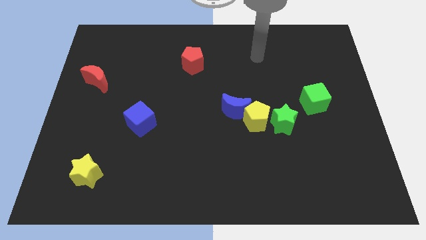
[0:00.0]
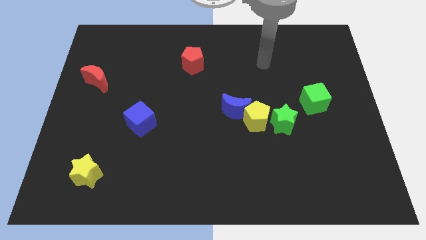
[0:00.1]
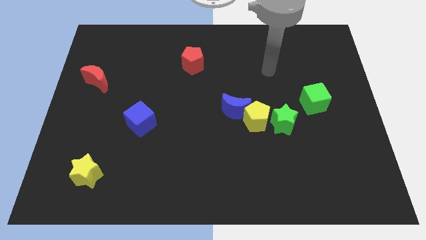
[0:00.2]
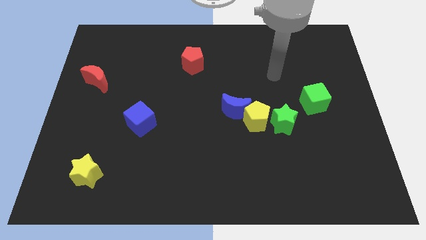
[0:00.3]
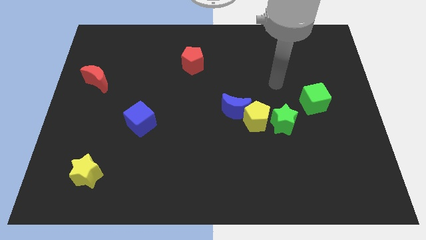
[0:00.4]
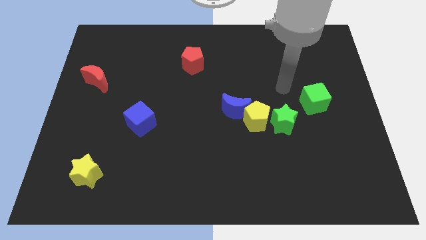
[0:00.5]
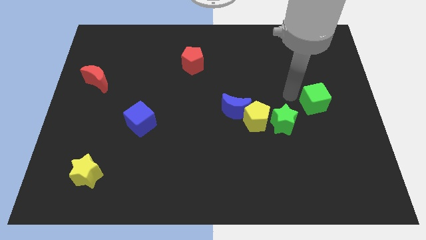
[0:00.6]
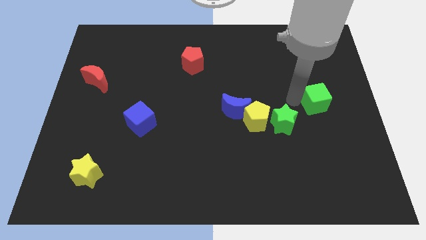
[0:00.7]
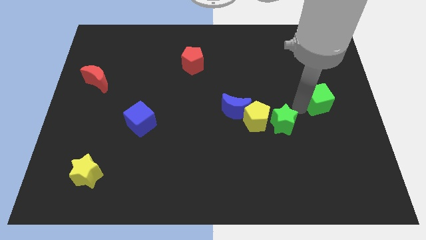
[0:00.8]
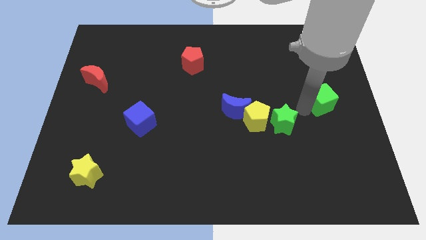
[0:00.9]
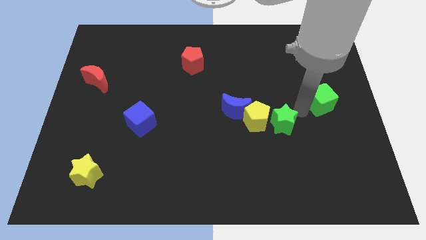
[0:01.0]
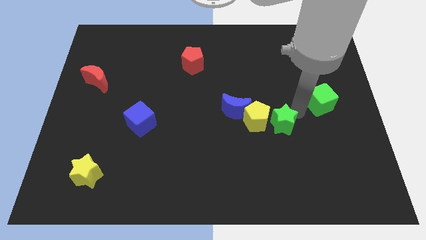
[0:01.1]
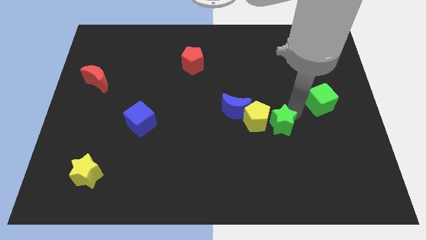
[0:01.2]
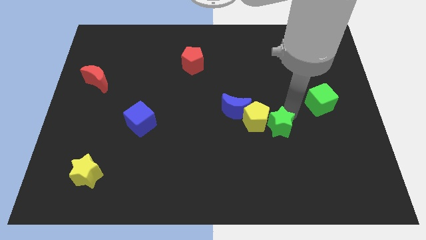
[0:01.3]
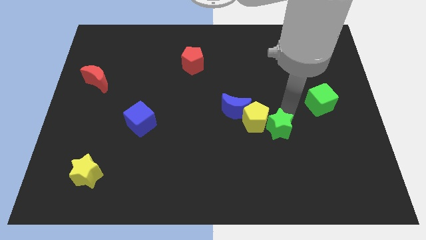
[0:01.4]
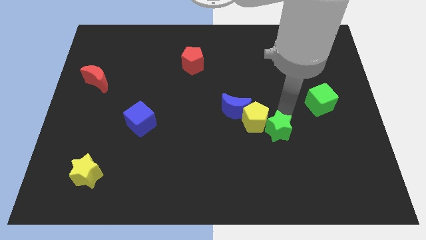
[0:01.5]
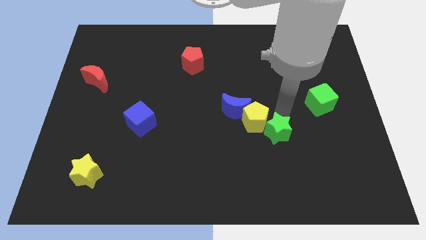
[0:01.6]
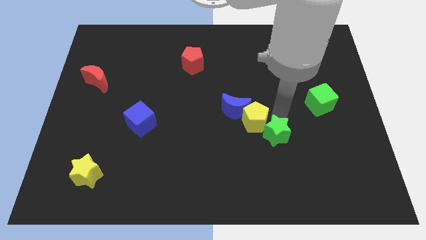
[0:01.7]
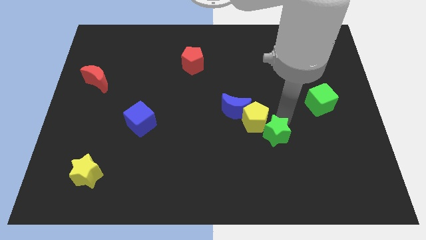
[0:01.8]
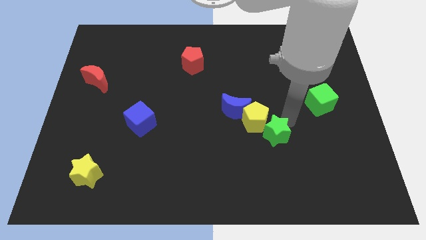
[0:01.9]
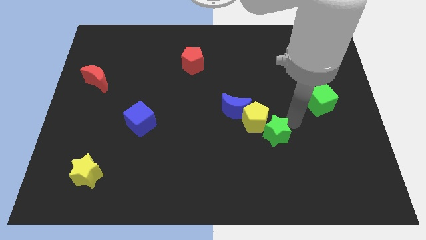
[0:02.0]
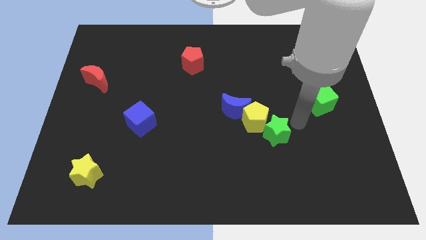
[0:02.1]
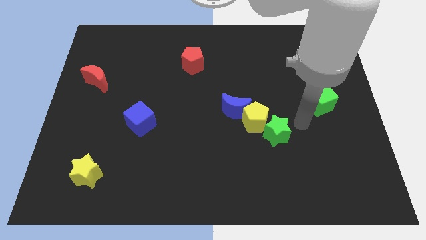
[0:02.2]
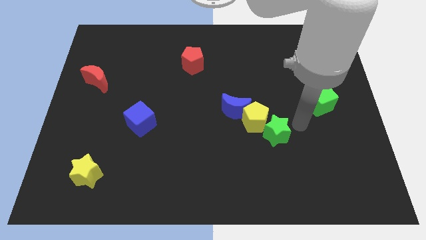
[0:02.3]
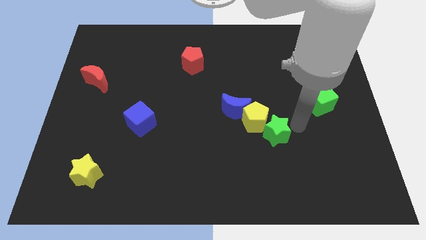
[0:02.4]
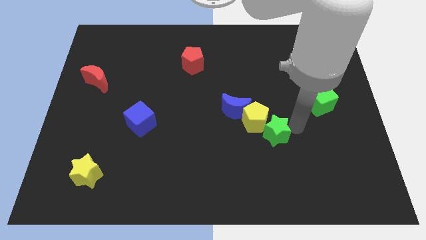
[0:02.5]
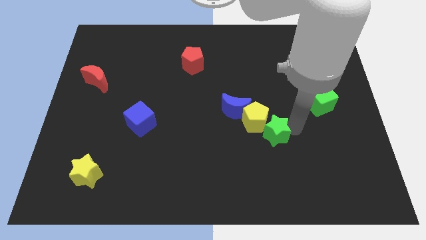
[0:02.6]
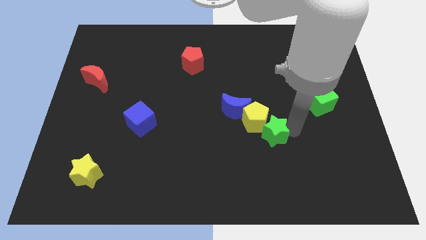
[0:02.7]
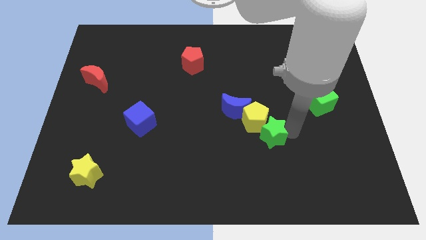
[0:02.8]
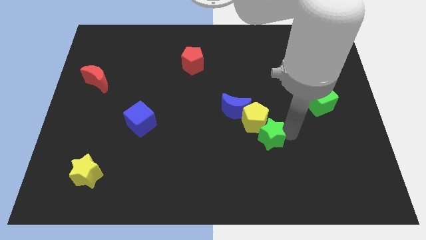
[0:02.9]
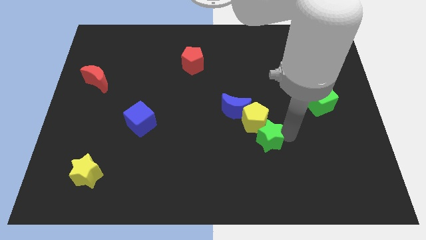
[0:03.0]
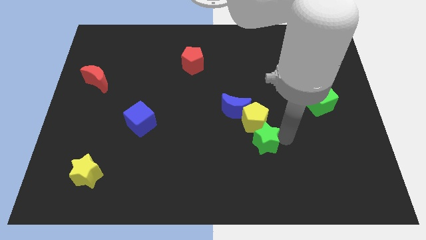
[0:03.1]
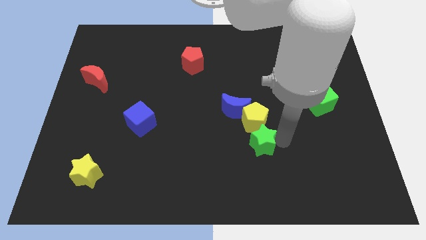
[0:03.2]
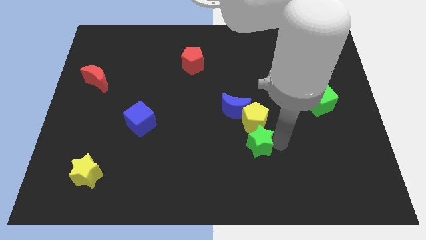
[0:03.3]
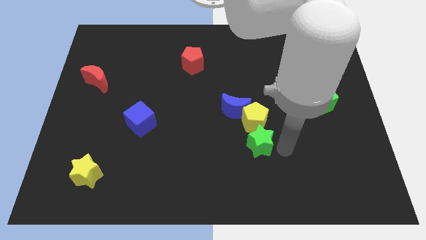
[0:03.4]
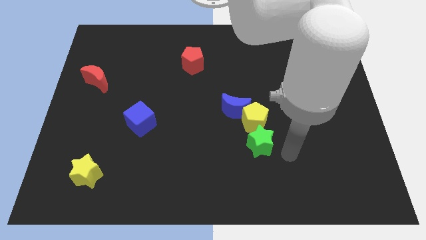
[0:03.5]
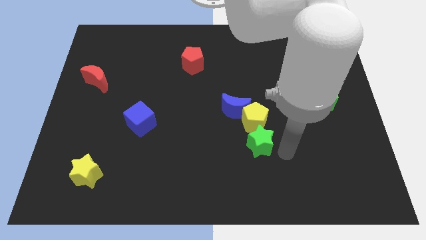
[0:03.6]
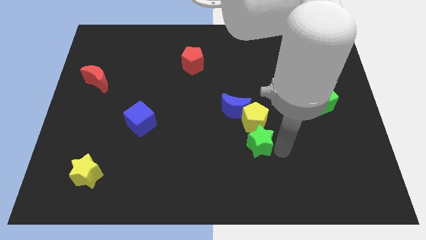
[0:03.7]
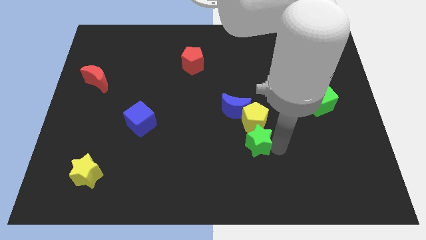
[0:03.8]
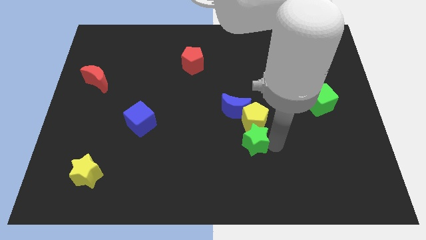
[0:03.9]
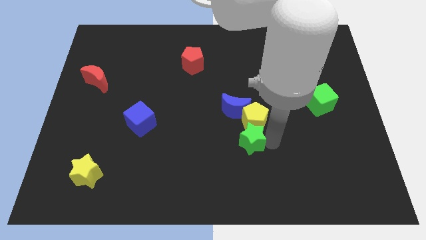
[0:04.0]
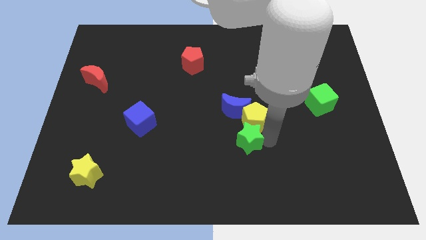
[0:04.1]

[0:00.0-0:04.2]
slide the green star left a bit

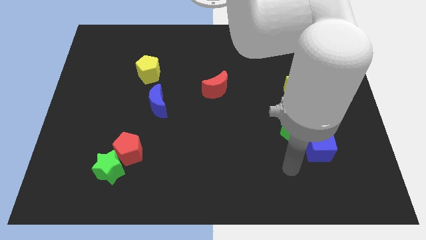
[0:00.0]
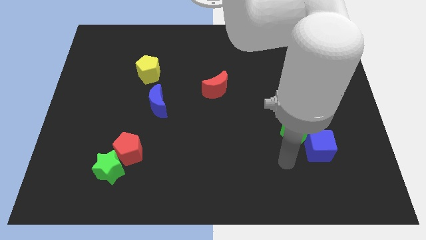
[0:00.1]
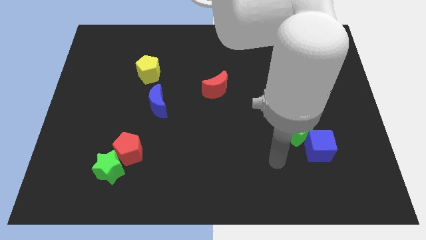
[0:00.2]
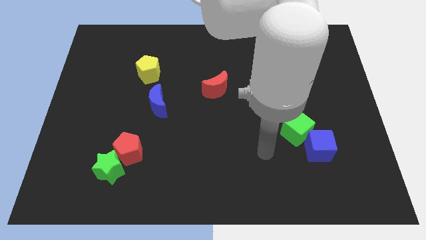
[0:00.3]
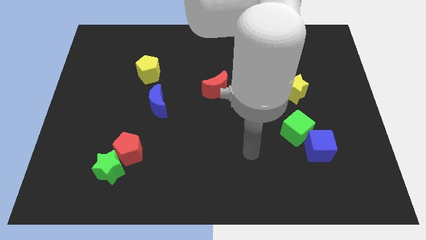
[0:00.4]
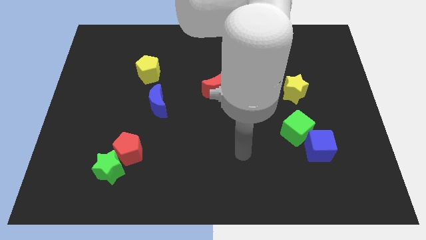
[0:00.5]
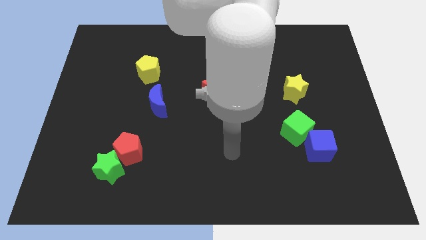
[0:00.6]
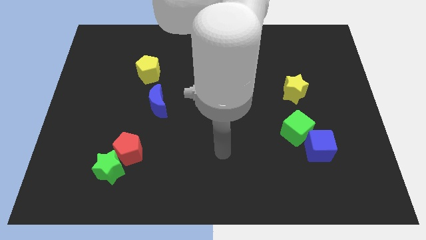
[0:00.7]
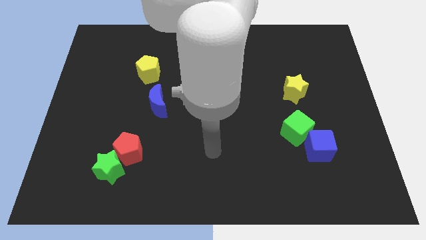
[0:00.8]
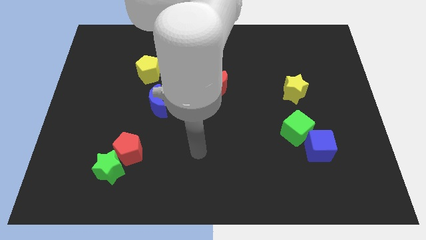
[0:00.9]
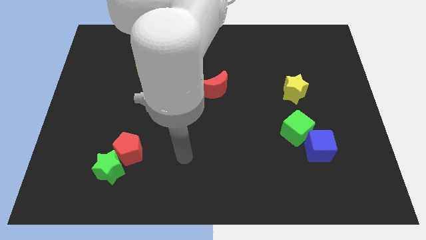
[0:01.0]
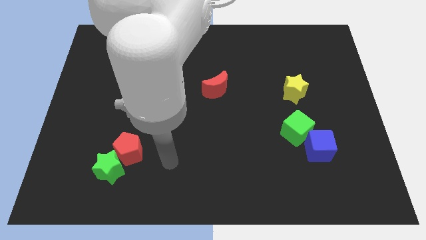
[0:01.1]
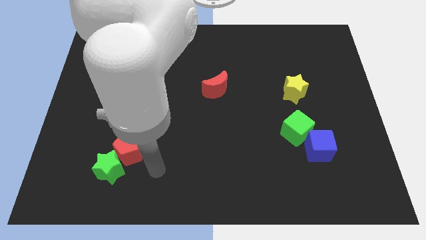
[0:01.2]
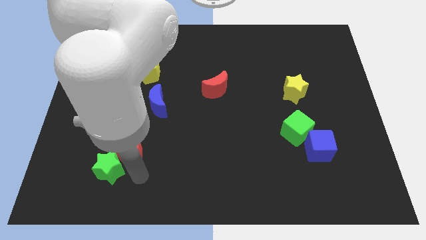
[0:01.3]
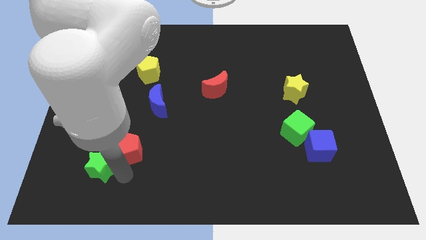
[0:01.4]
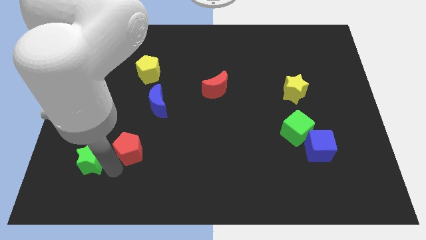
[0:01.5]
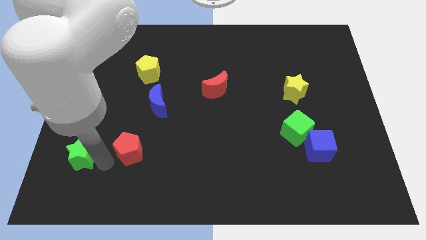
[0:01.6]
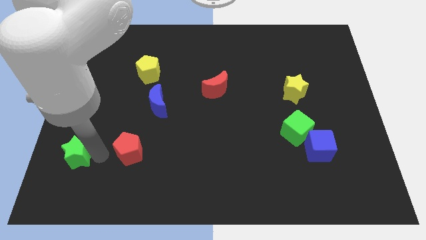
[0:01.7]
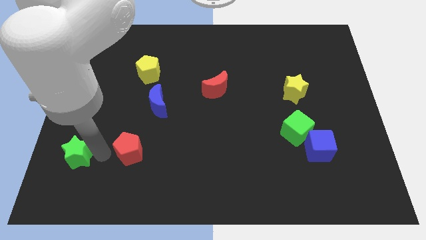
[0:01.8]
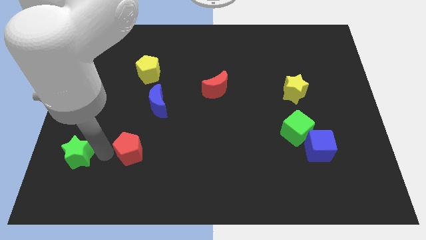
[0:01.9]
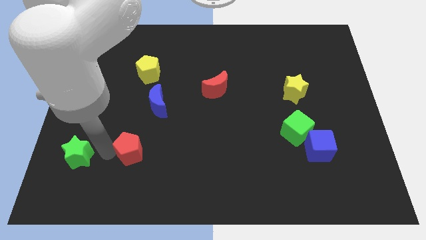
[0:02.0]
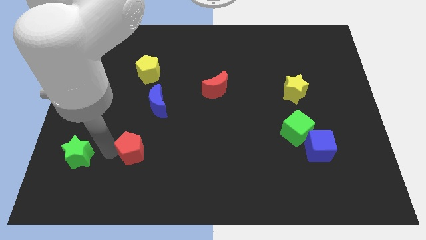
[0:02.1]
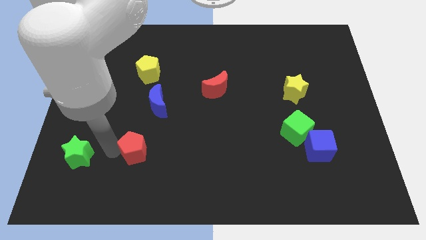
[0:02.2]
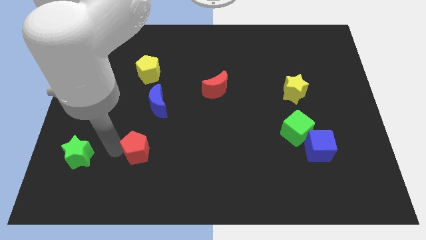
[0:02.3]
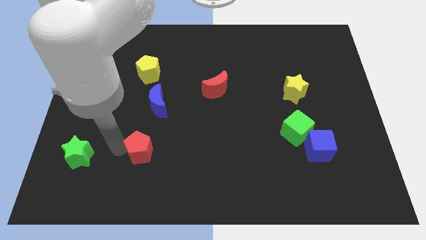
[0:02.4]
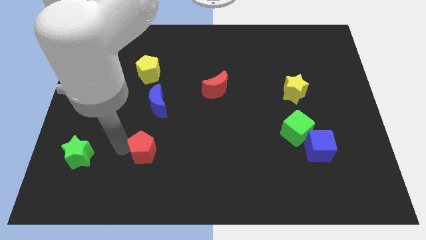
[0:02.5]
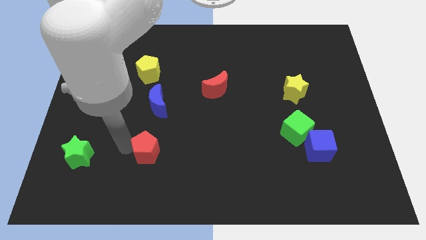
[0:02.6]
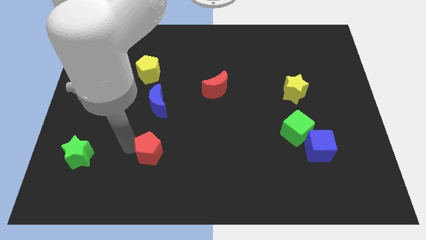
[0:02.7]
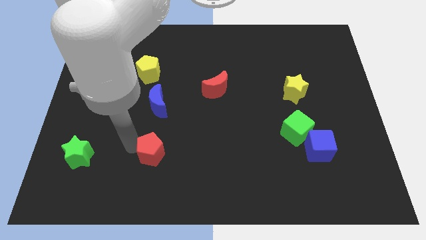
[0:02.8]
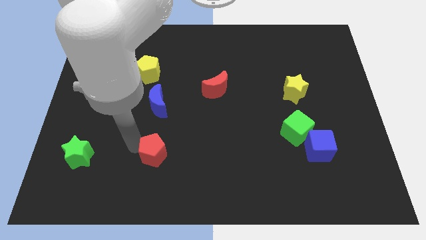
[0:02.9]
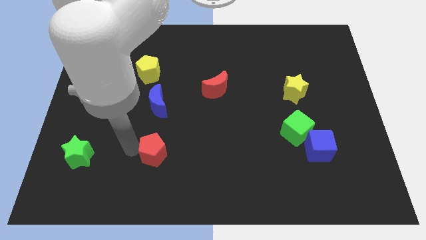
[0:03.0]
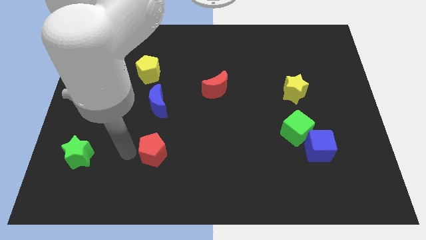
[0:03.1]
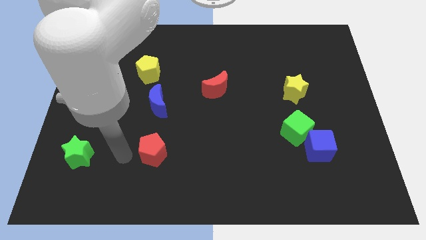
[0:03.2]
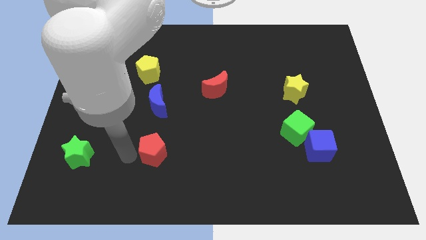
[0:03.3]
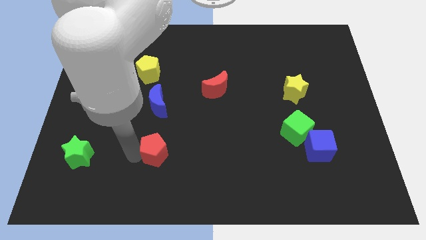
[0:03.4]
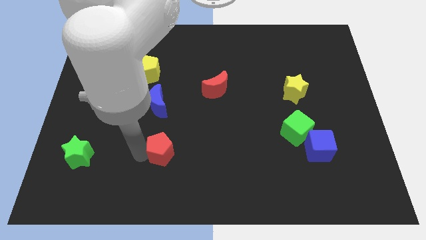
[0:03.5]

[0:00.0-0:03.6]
slightly move the red pentagon right
